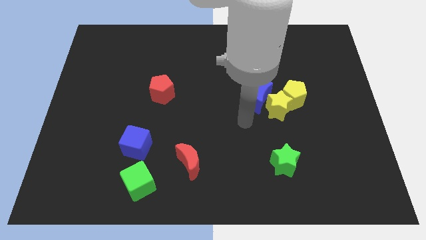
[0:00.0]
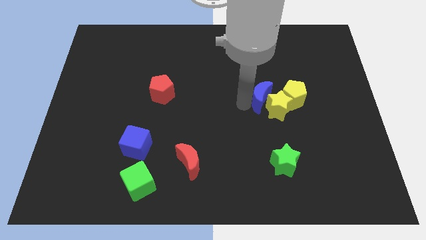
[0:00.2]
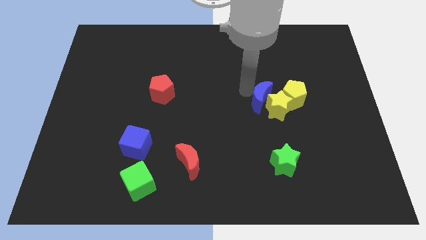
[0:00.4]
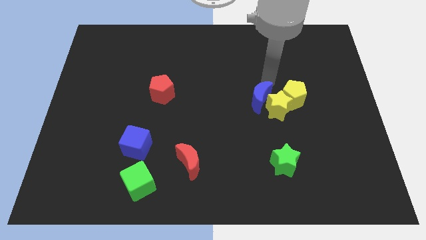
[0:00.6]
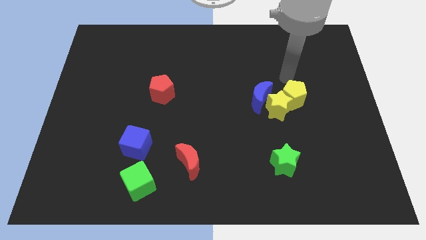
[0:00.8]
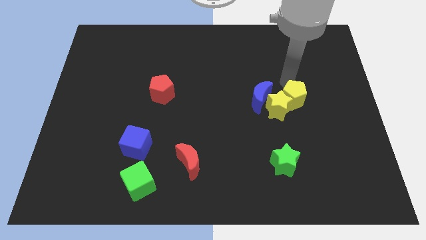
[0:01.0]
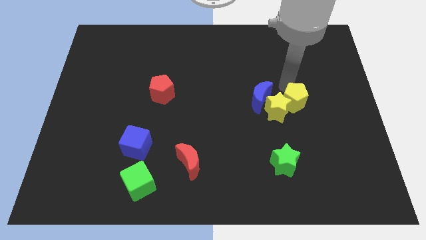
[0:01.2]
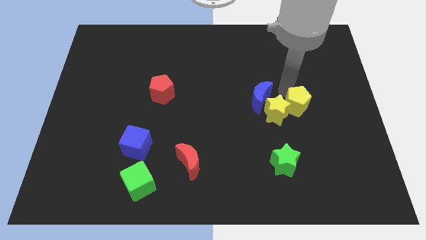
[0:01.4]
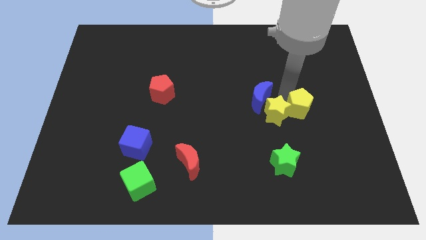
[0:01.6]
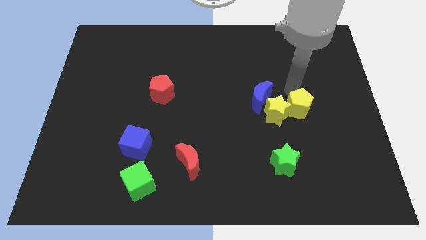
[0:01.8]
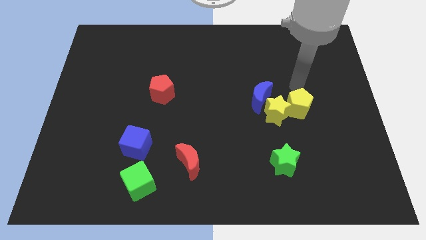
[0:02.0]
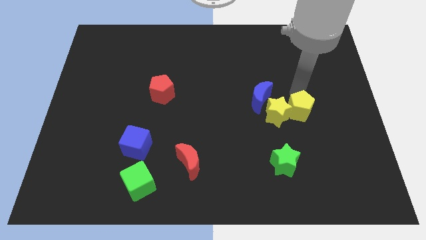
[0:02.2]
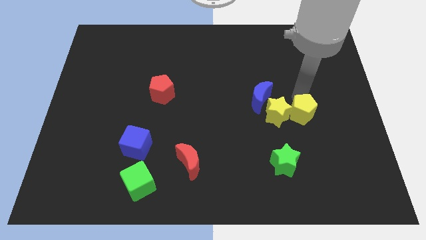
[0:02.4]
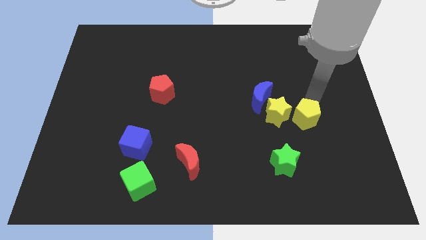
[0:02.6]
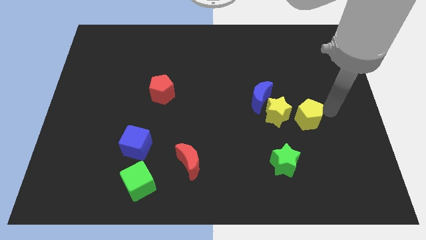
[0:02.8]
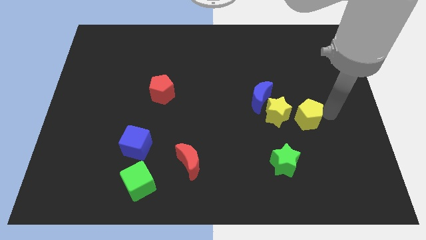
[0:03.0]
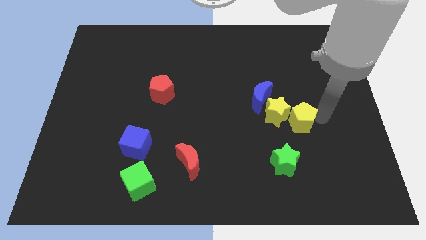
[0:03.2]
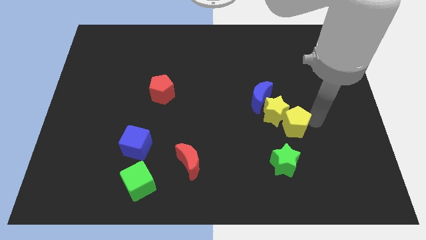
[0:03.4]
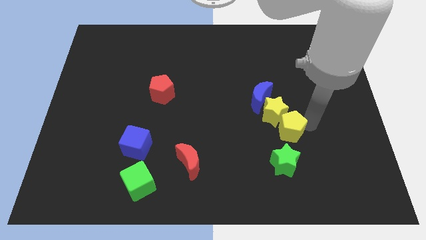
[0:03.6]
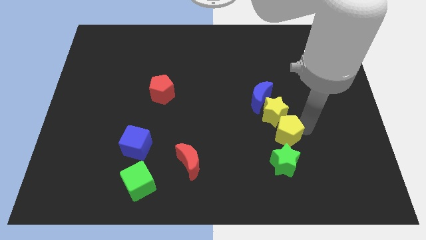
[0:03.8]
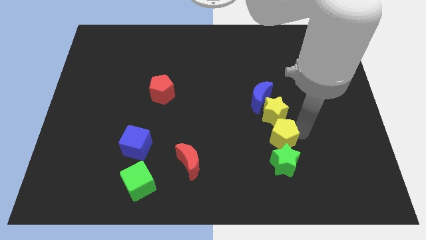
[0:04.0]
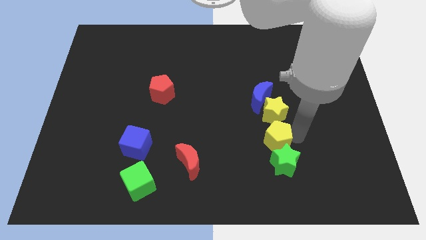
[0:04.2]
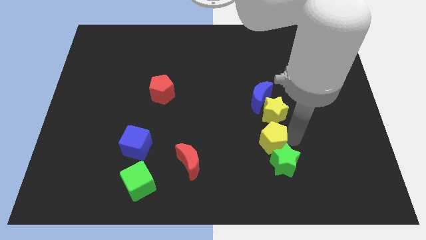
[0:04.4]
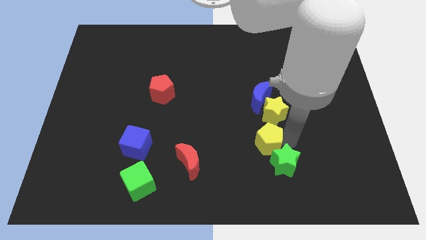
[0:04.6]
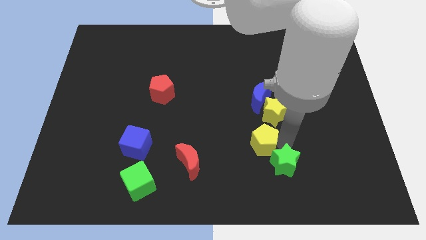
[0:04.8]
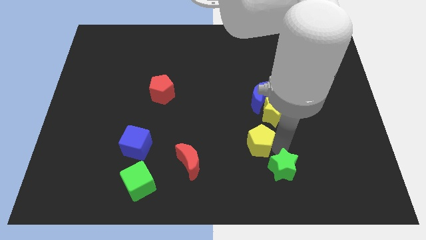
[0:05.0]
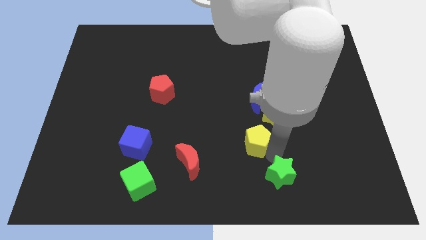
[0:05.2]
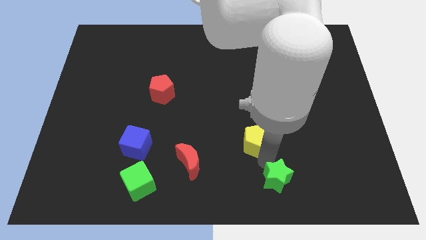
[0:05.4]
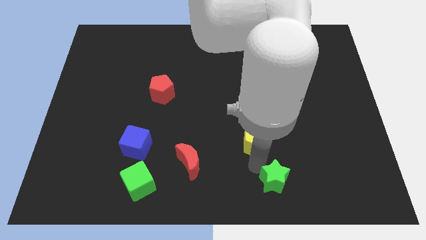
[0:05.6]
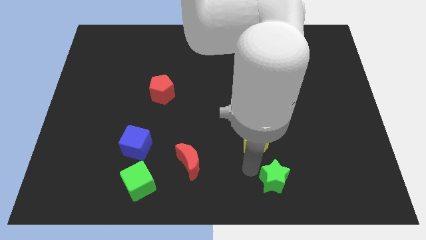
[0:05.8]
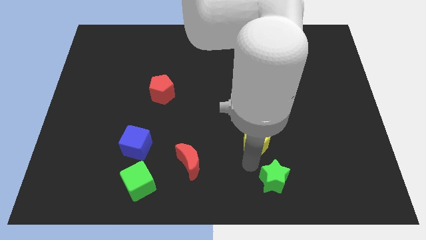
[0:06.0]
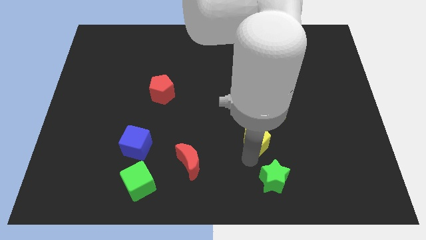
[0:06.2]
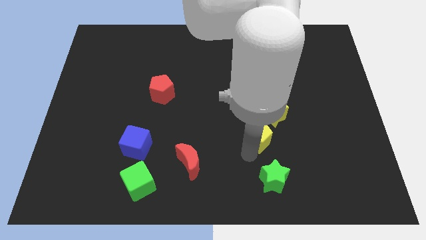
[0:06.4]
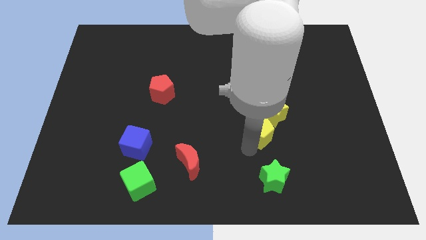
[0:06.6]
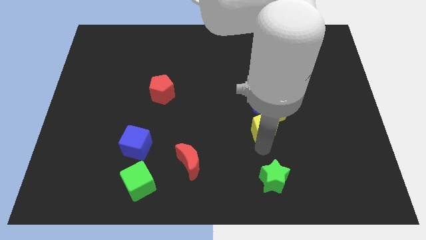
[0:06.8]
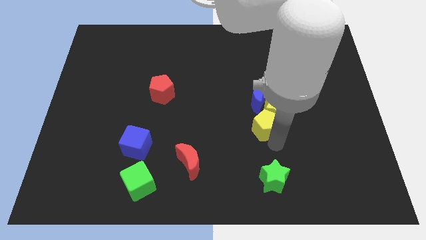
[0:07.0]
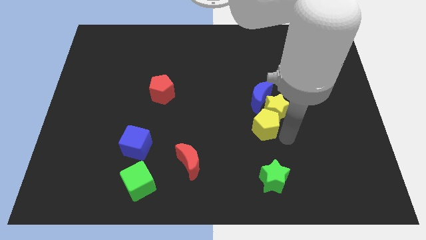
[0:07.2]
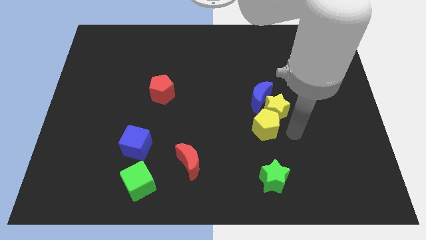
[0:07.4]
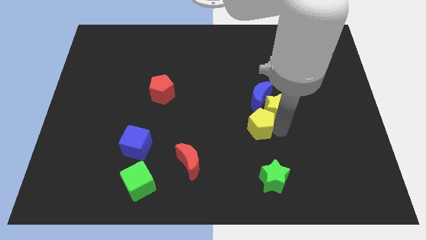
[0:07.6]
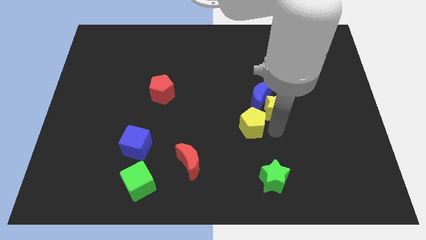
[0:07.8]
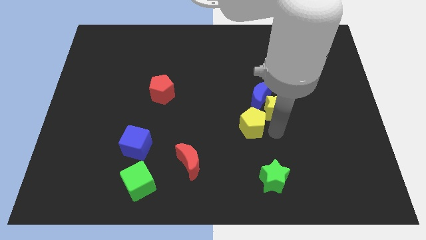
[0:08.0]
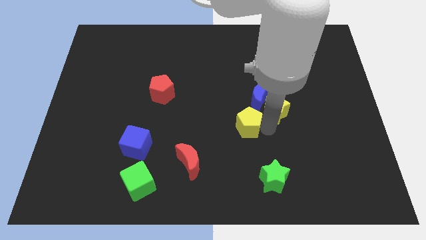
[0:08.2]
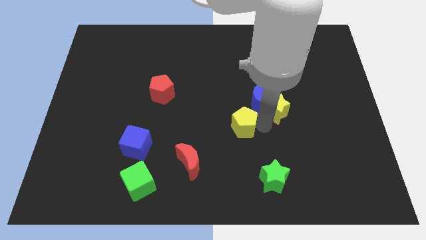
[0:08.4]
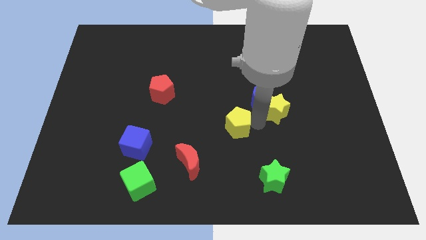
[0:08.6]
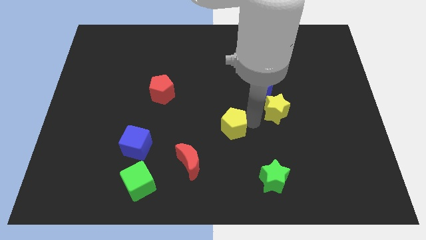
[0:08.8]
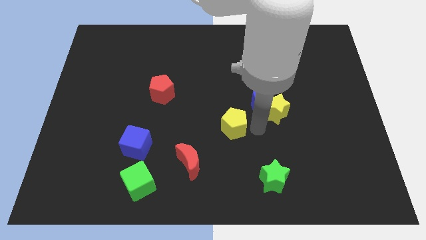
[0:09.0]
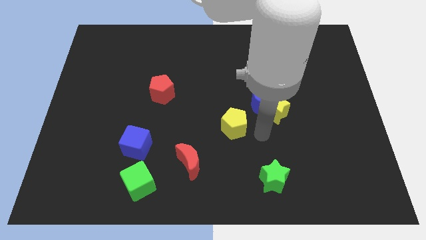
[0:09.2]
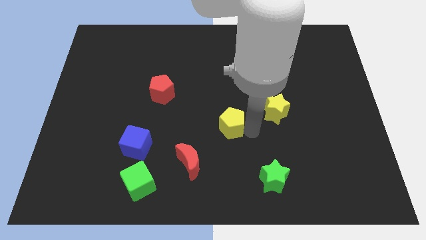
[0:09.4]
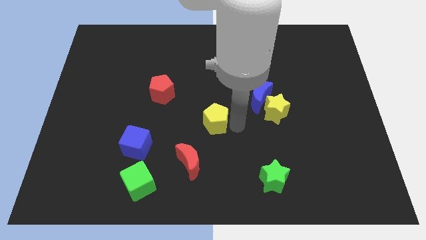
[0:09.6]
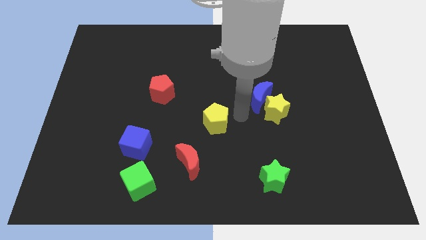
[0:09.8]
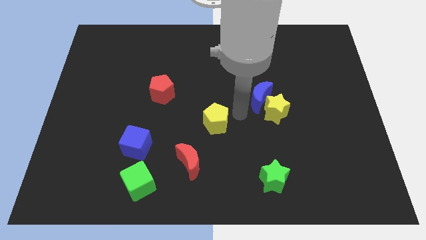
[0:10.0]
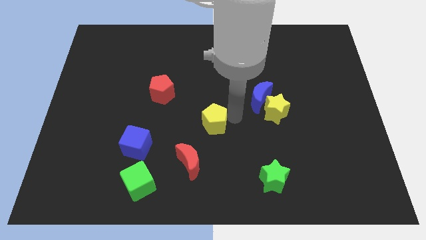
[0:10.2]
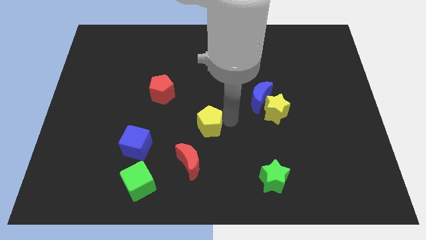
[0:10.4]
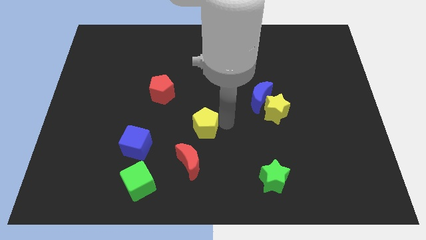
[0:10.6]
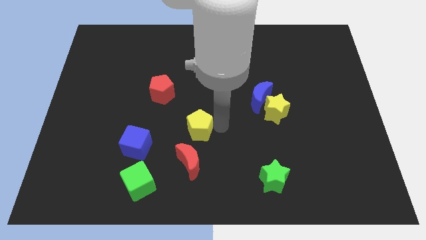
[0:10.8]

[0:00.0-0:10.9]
move the yellow pentagon right of the blue cube

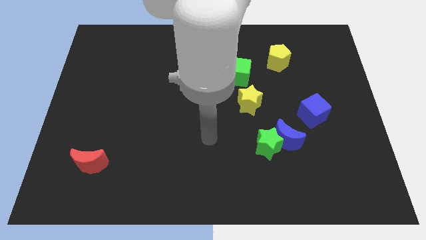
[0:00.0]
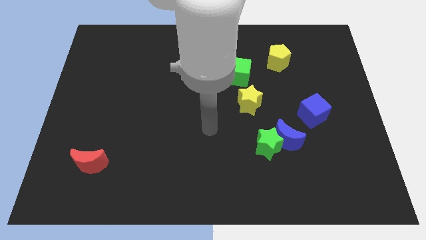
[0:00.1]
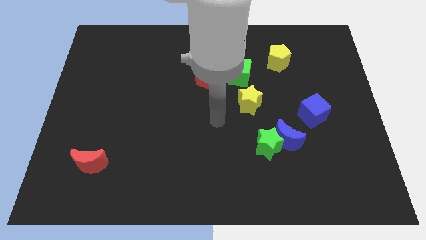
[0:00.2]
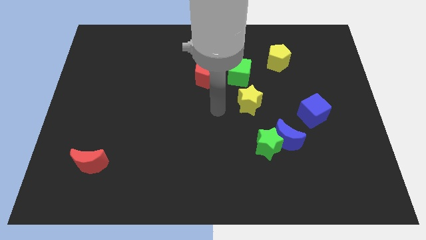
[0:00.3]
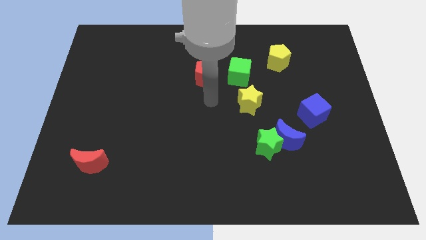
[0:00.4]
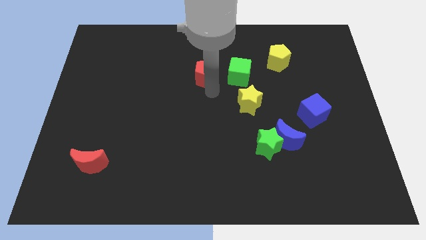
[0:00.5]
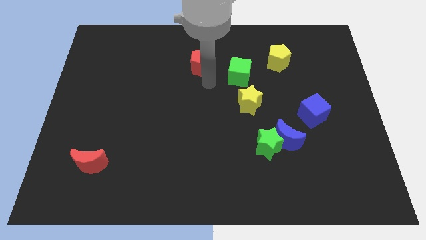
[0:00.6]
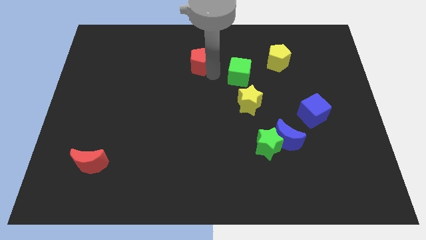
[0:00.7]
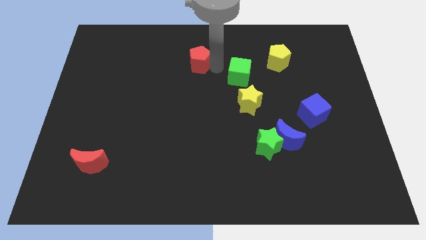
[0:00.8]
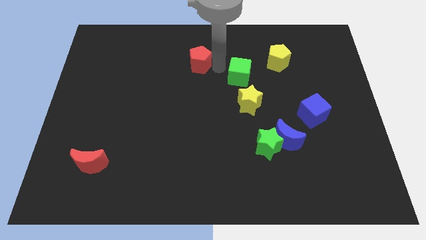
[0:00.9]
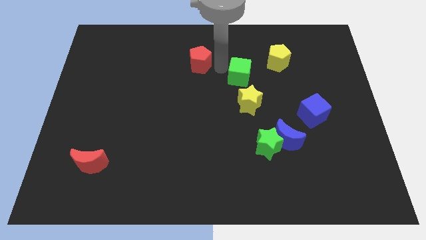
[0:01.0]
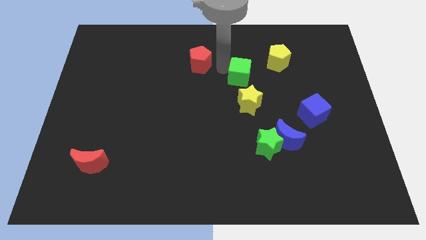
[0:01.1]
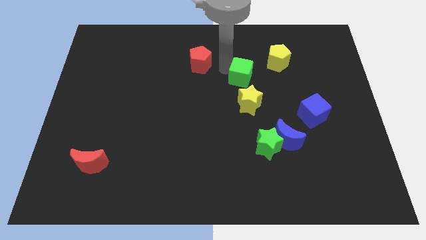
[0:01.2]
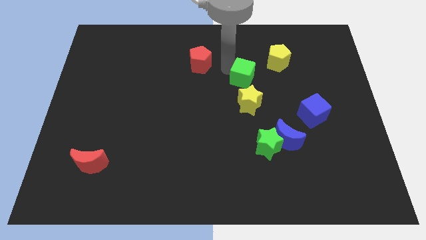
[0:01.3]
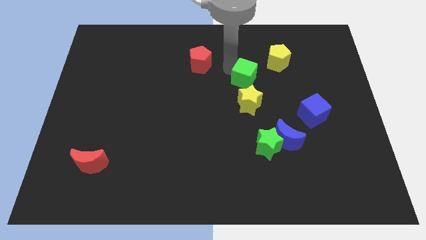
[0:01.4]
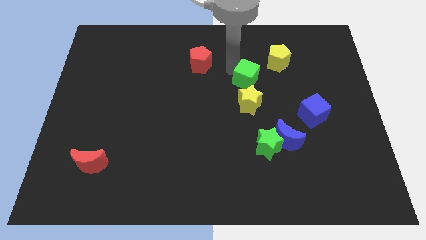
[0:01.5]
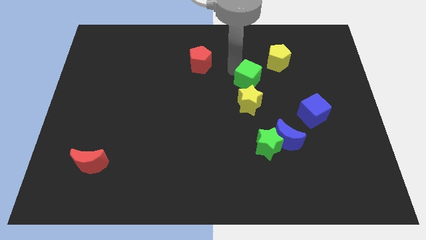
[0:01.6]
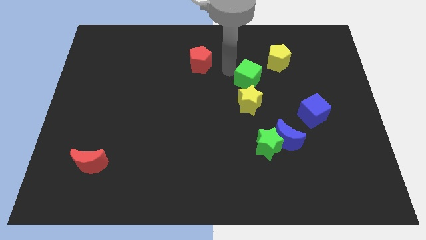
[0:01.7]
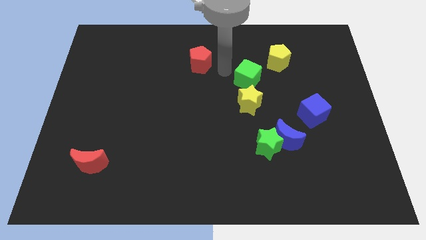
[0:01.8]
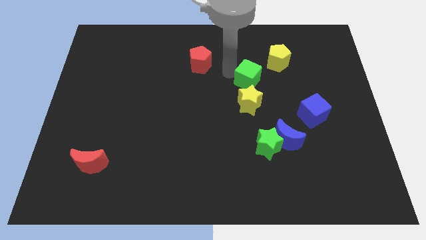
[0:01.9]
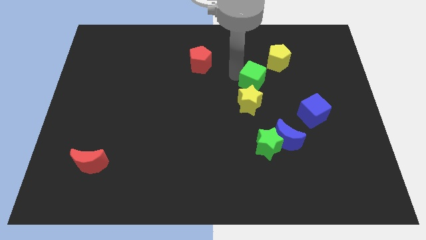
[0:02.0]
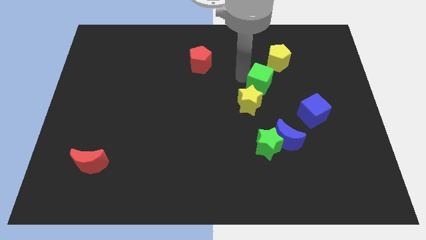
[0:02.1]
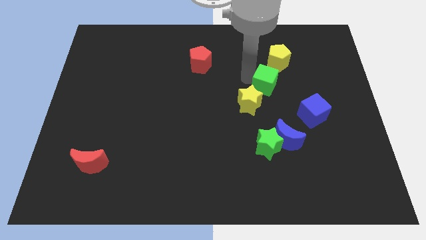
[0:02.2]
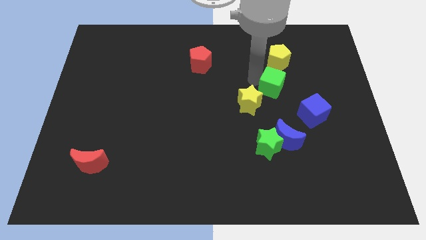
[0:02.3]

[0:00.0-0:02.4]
move the green cube to the top left of the blue cube

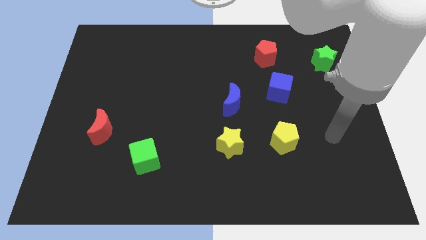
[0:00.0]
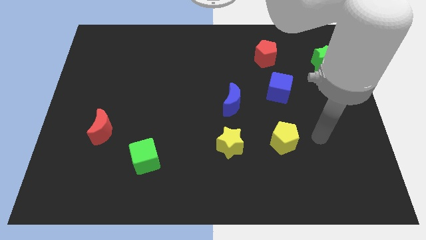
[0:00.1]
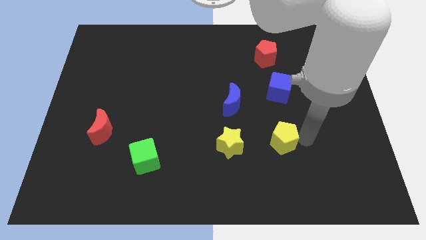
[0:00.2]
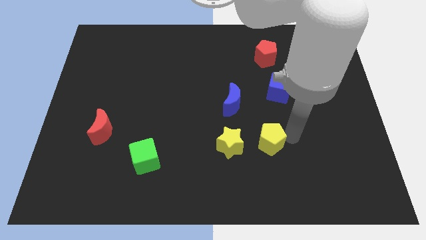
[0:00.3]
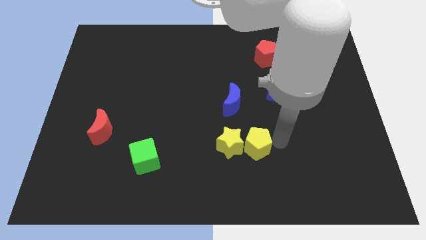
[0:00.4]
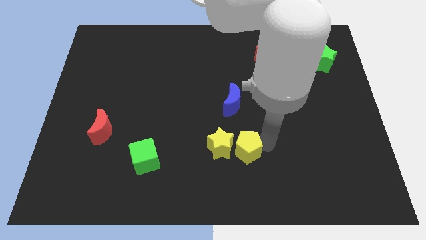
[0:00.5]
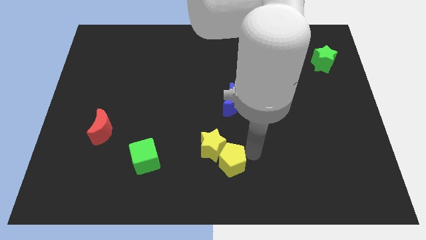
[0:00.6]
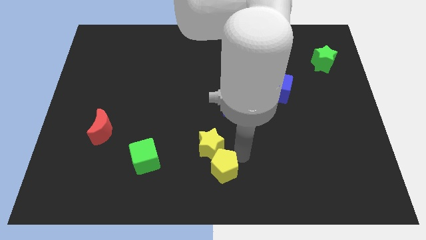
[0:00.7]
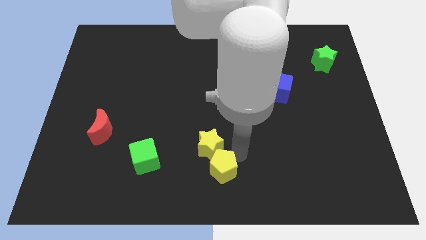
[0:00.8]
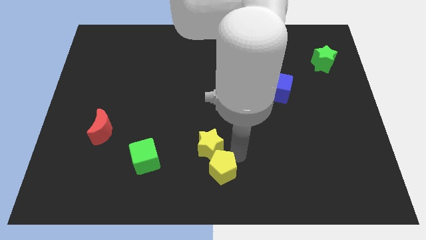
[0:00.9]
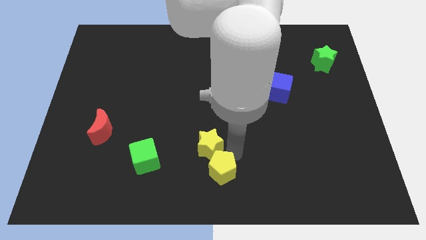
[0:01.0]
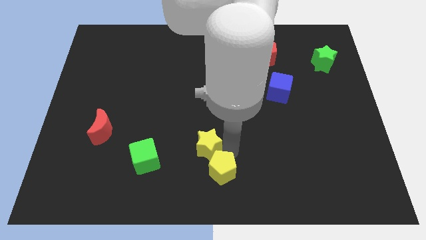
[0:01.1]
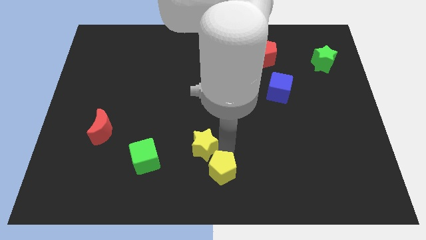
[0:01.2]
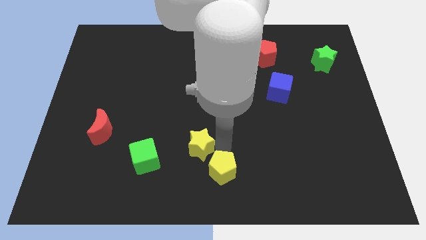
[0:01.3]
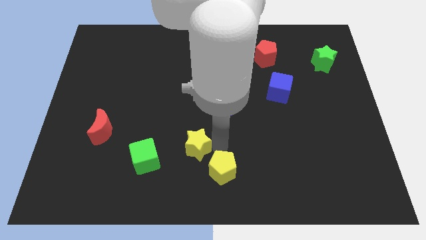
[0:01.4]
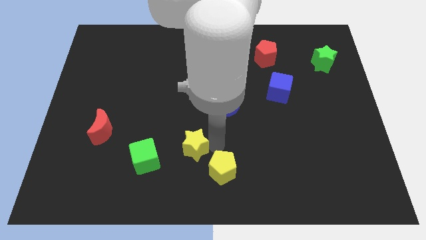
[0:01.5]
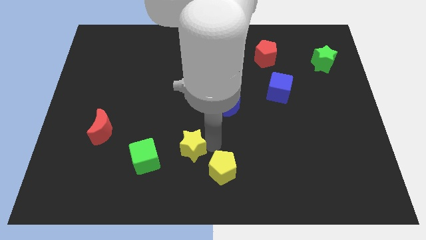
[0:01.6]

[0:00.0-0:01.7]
slide the yellow star diagonally up and to the right of the green cube
